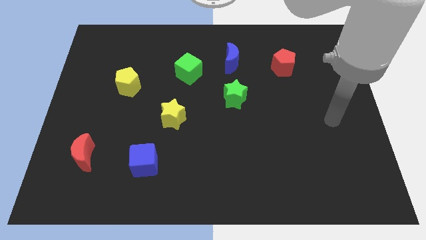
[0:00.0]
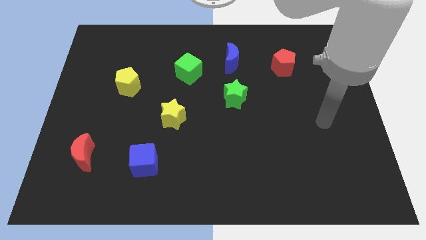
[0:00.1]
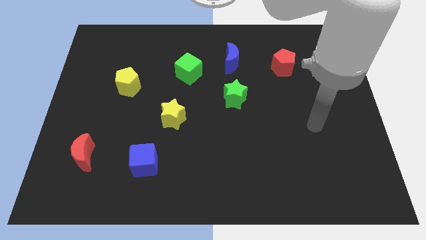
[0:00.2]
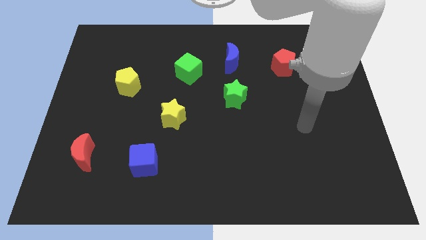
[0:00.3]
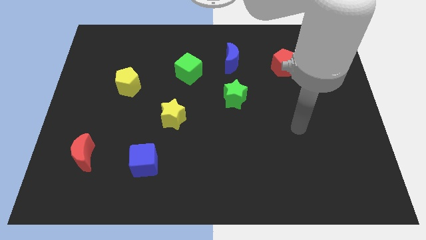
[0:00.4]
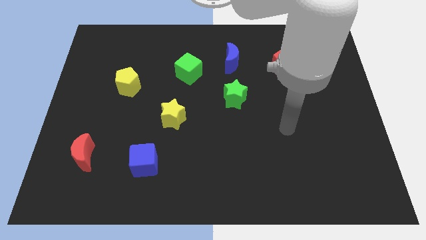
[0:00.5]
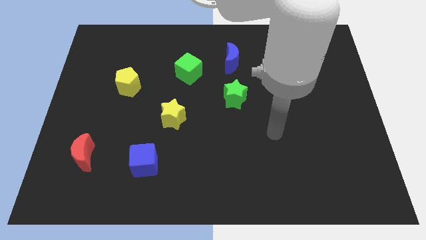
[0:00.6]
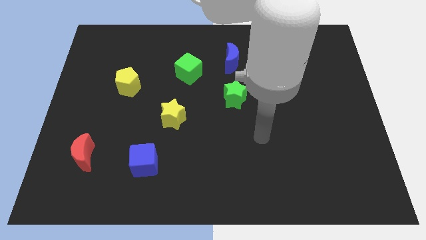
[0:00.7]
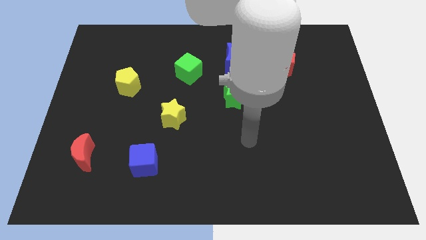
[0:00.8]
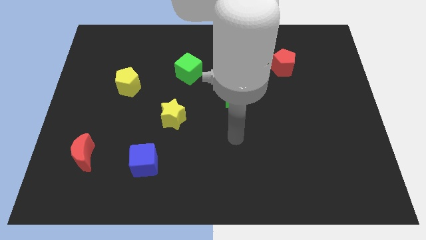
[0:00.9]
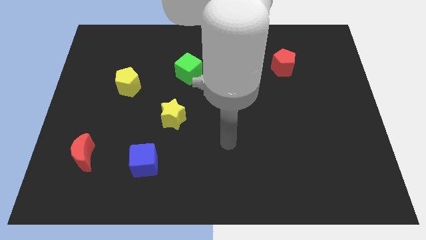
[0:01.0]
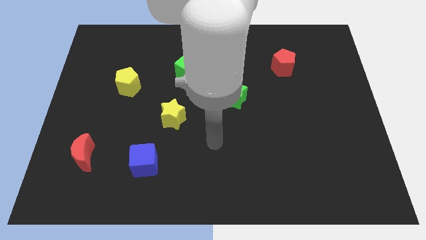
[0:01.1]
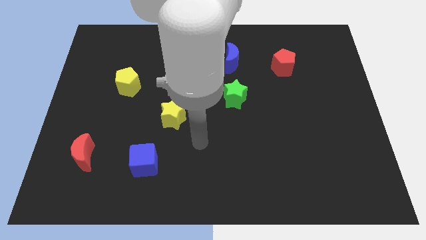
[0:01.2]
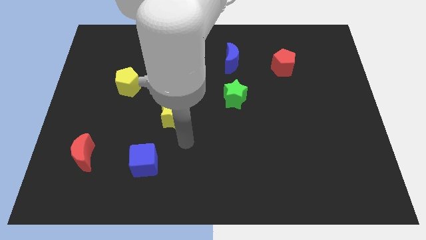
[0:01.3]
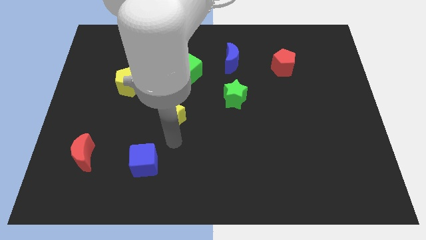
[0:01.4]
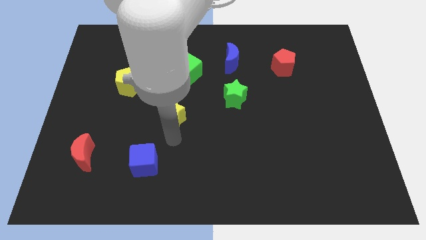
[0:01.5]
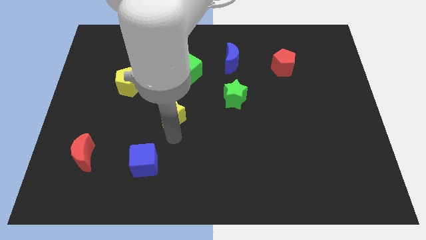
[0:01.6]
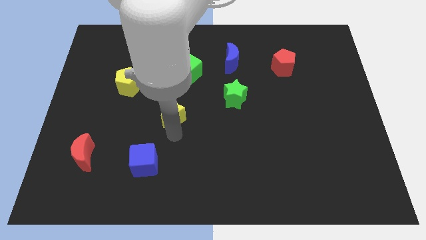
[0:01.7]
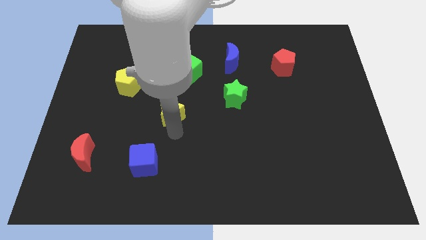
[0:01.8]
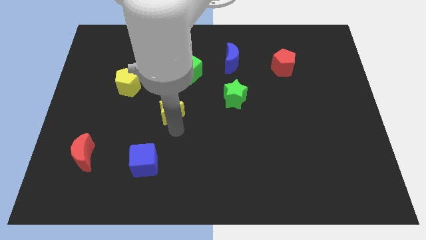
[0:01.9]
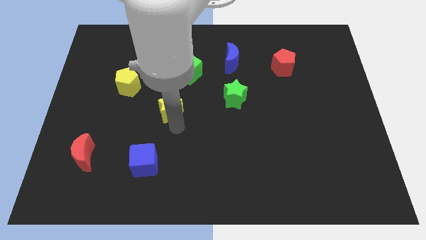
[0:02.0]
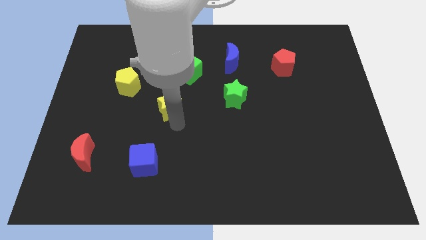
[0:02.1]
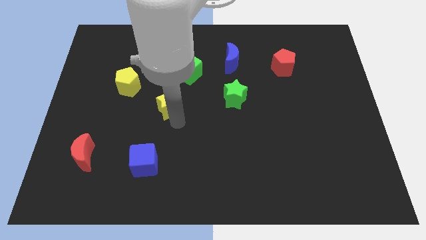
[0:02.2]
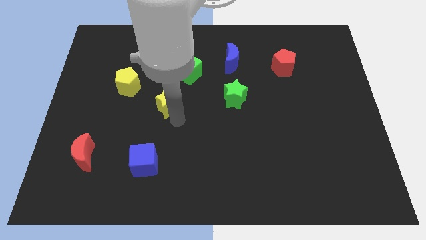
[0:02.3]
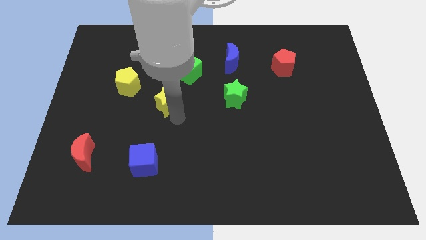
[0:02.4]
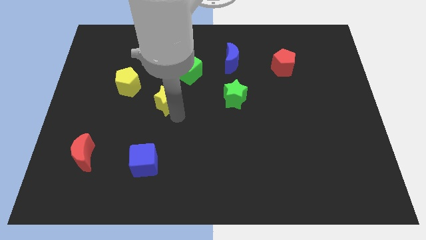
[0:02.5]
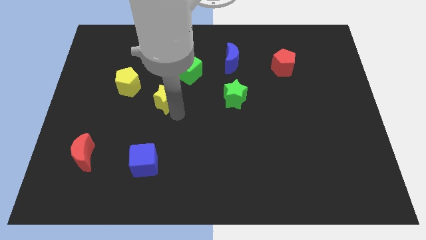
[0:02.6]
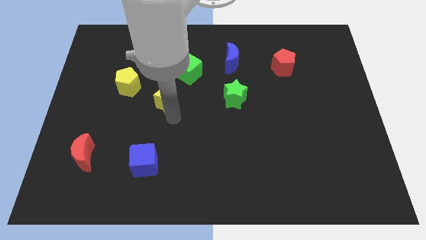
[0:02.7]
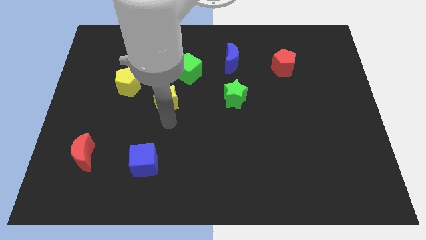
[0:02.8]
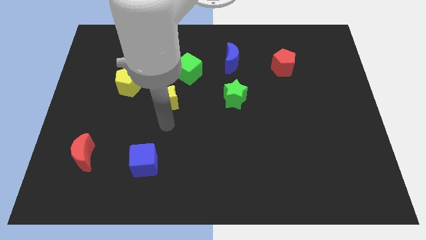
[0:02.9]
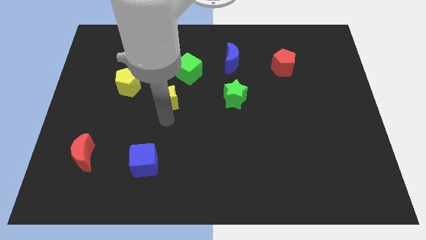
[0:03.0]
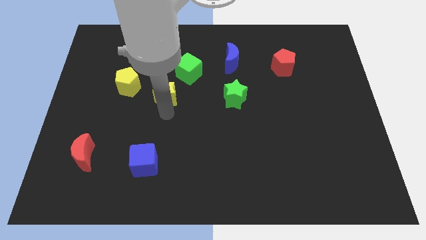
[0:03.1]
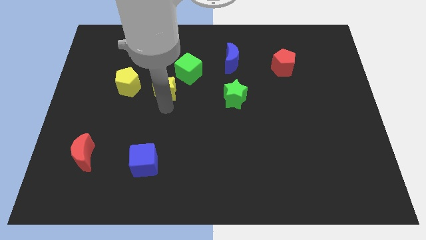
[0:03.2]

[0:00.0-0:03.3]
push the yellow star upwards a little bit

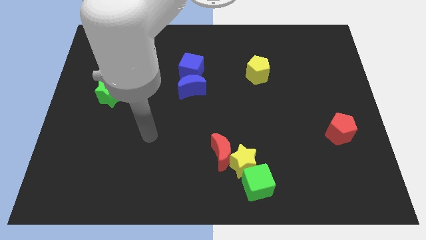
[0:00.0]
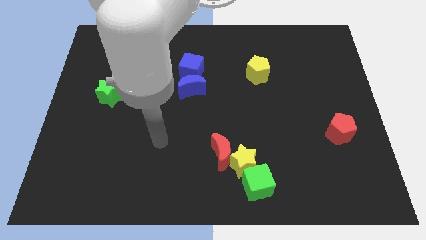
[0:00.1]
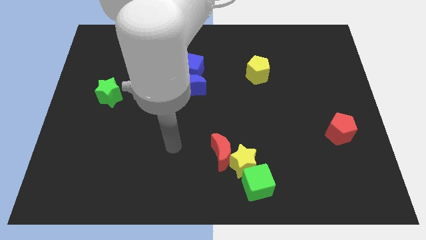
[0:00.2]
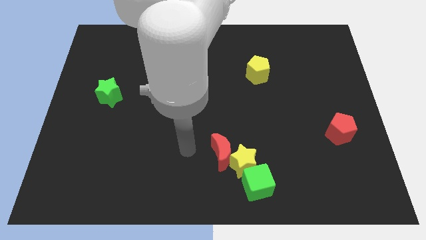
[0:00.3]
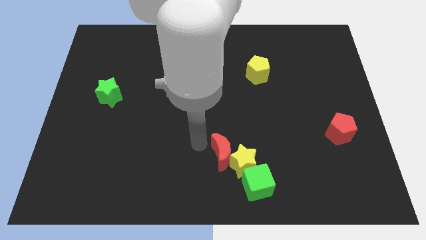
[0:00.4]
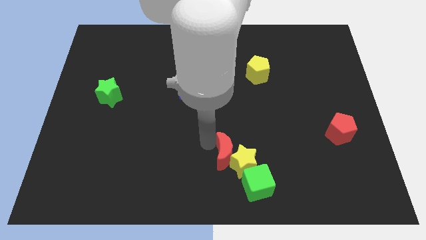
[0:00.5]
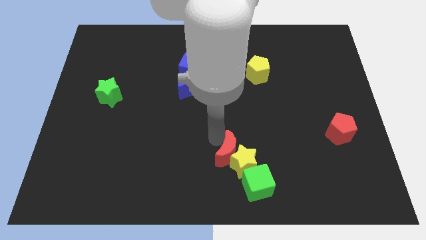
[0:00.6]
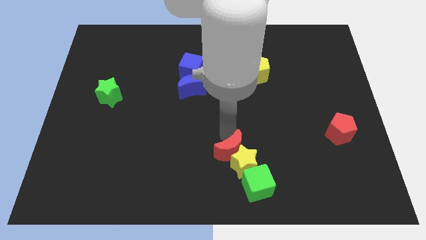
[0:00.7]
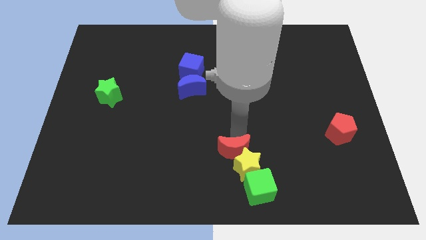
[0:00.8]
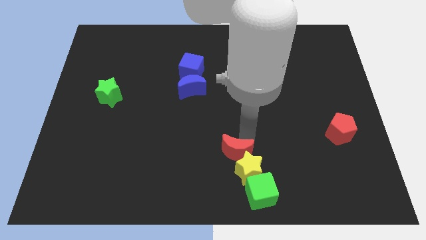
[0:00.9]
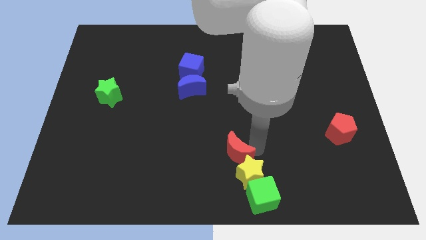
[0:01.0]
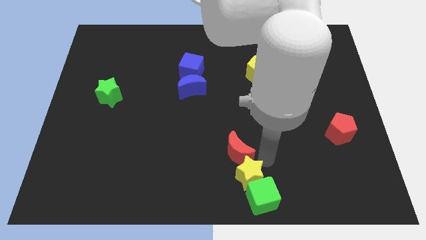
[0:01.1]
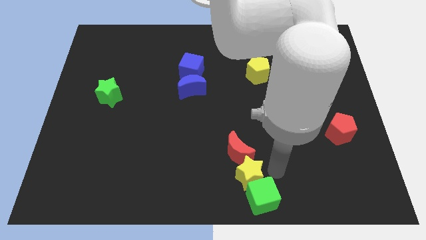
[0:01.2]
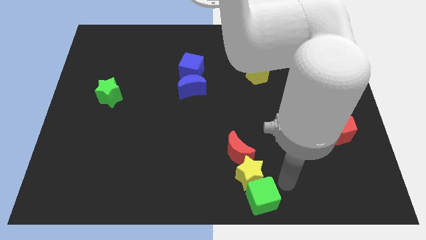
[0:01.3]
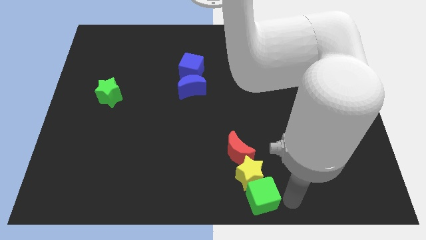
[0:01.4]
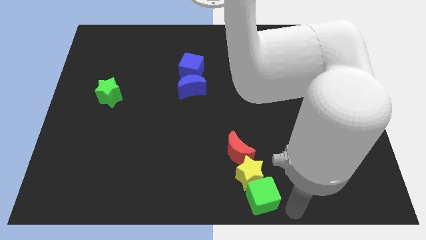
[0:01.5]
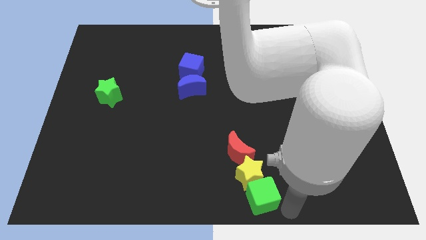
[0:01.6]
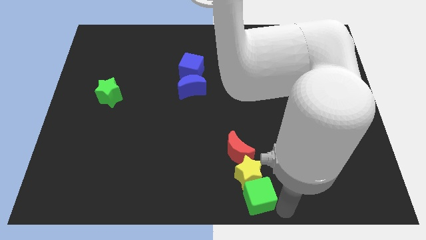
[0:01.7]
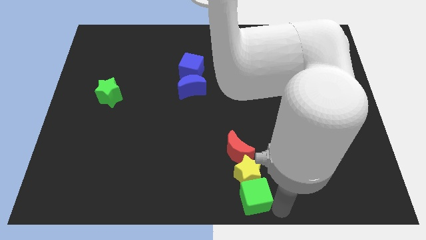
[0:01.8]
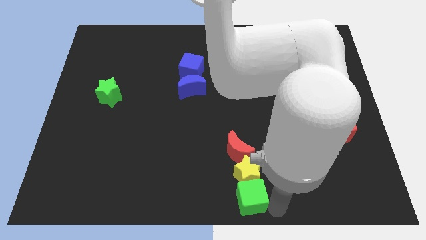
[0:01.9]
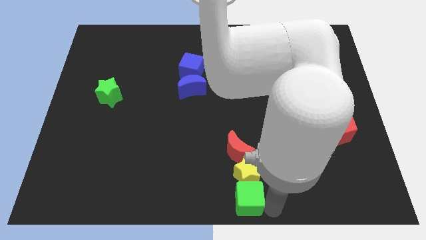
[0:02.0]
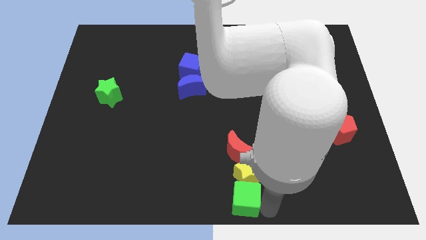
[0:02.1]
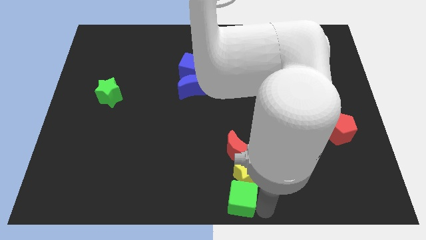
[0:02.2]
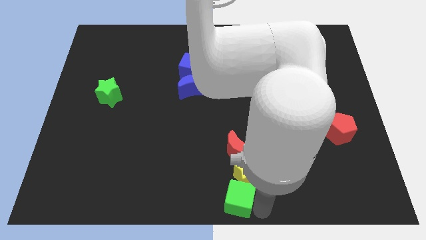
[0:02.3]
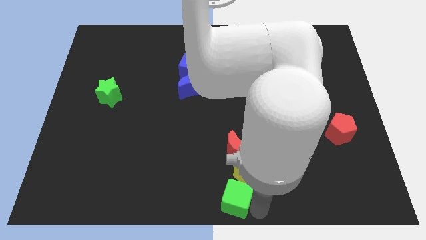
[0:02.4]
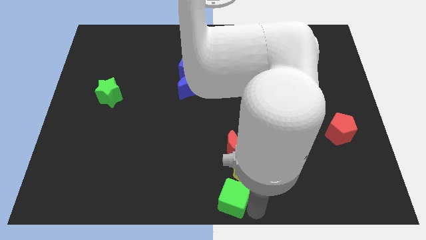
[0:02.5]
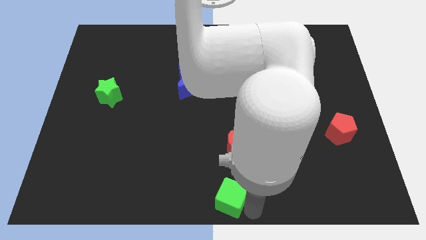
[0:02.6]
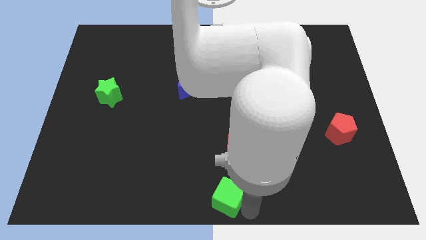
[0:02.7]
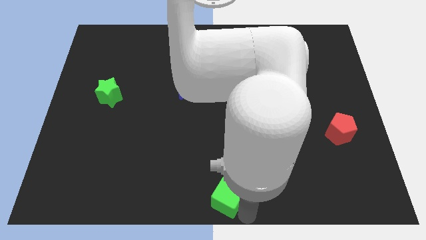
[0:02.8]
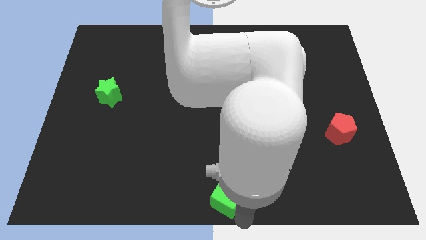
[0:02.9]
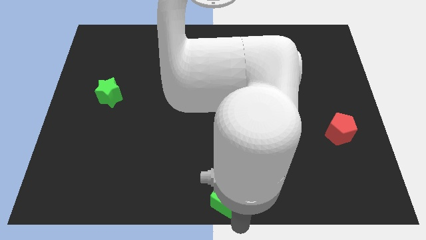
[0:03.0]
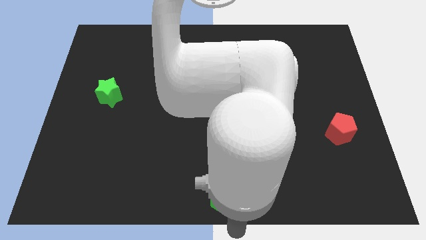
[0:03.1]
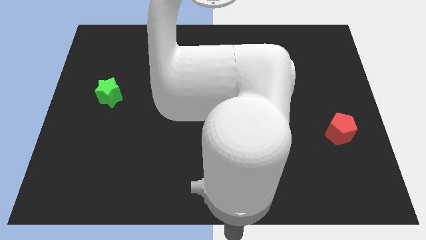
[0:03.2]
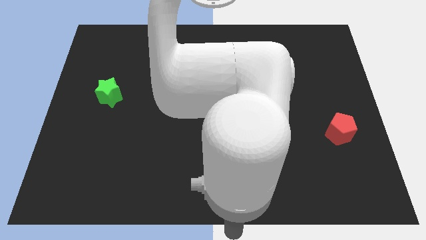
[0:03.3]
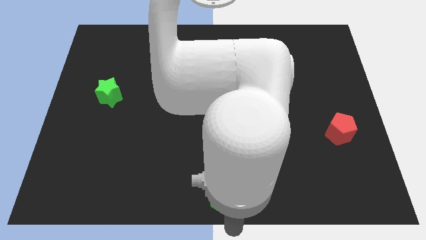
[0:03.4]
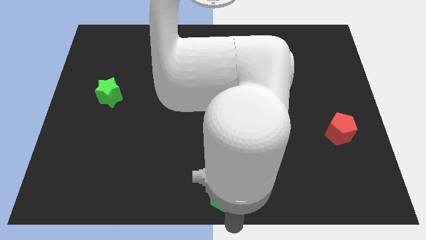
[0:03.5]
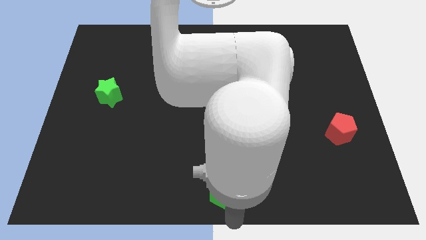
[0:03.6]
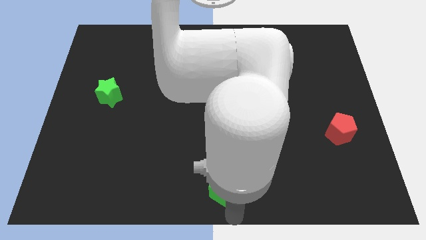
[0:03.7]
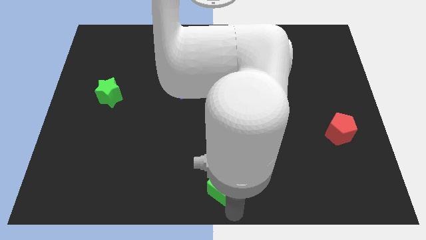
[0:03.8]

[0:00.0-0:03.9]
slightly move the green cube left

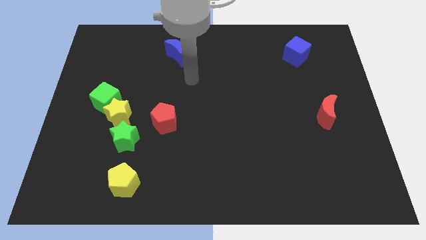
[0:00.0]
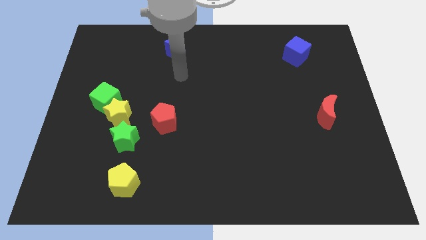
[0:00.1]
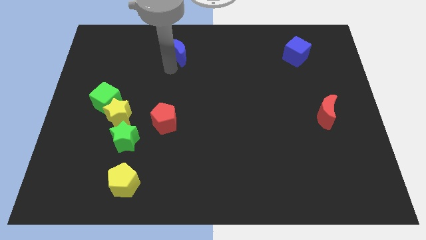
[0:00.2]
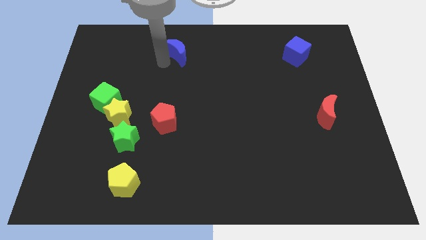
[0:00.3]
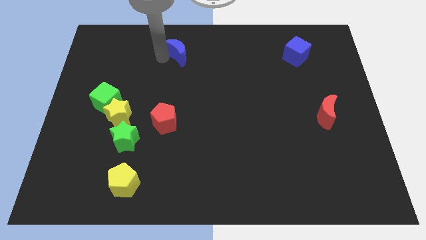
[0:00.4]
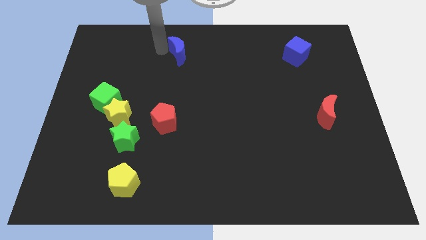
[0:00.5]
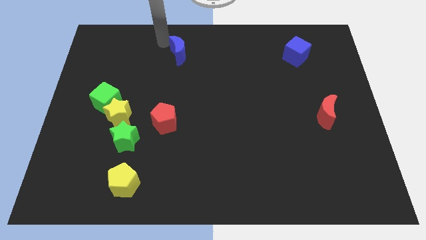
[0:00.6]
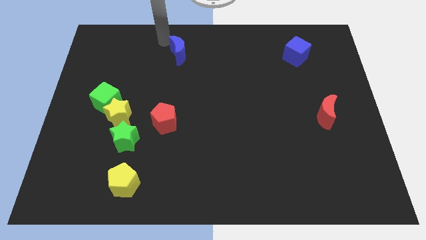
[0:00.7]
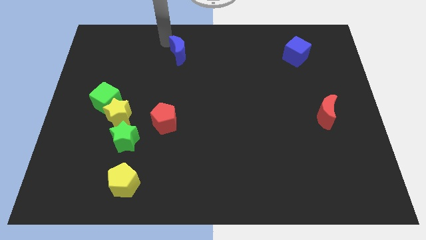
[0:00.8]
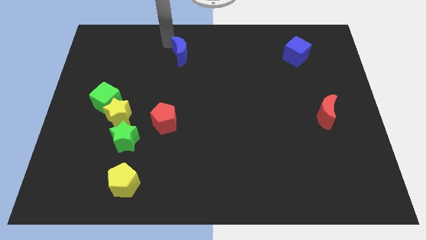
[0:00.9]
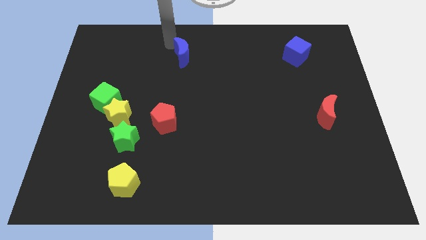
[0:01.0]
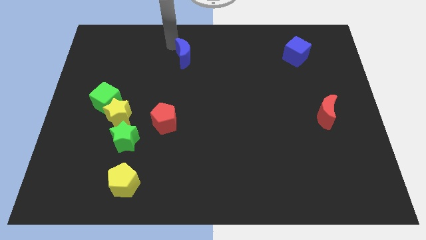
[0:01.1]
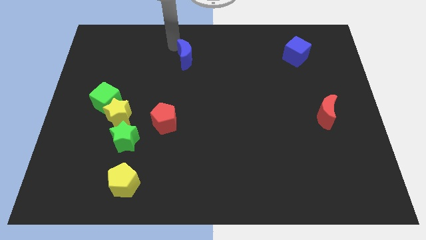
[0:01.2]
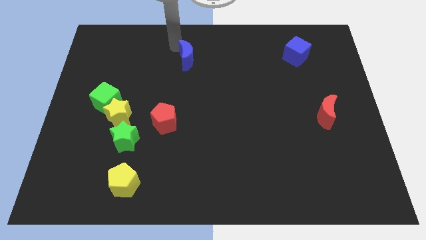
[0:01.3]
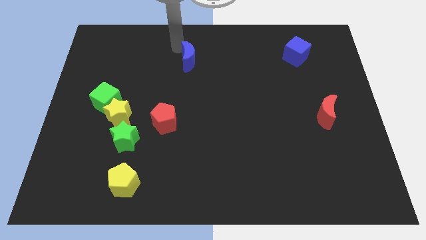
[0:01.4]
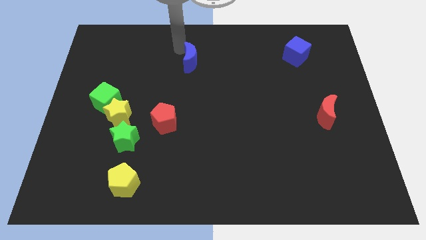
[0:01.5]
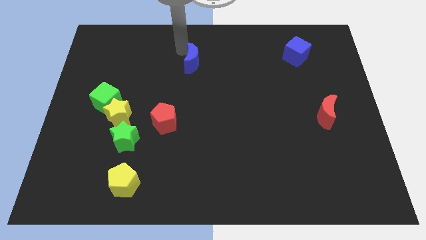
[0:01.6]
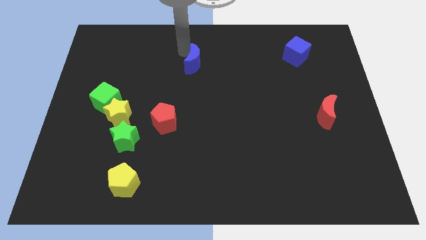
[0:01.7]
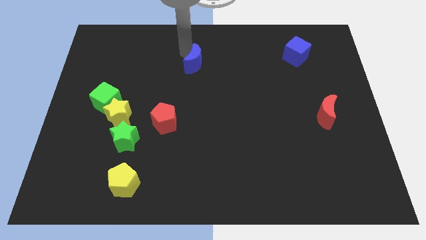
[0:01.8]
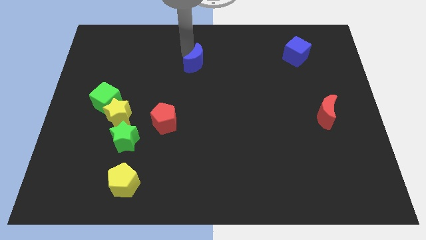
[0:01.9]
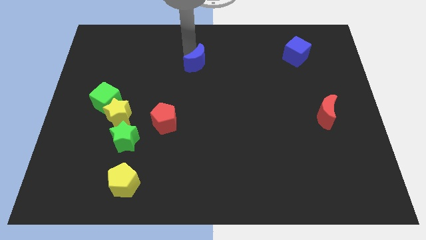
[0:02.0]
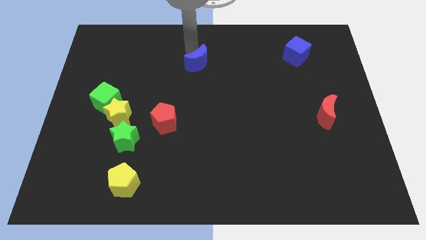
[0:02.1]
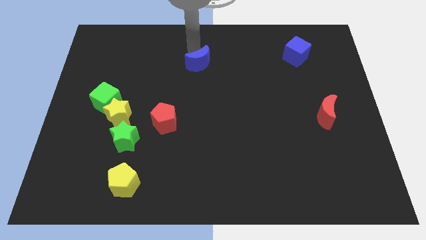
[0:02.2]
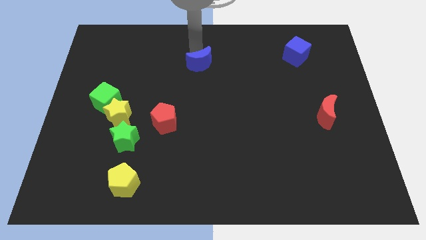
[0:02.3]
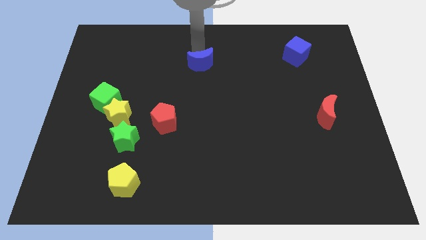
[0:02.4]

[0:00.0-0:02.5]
slightly slide the blue moon down and right
